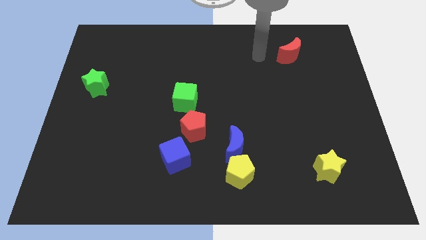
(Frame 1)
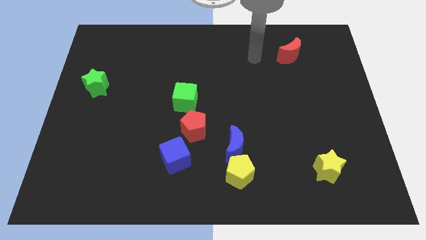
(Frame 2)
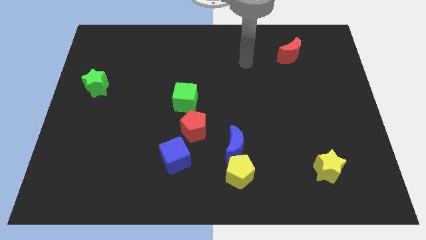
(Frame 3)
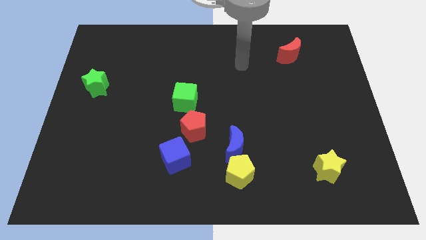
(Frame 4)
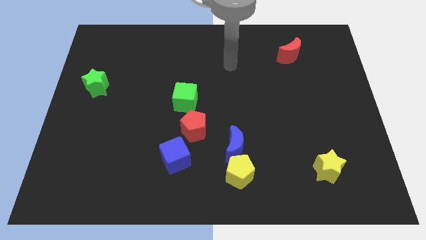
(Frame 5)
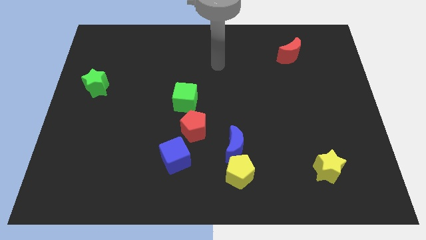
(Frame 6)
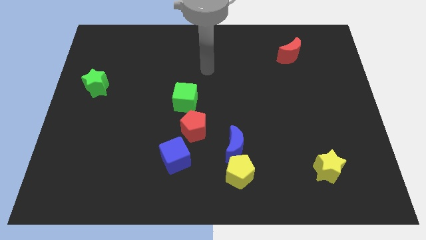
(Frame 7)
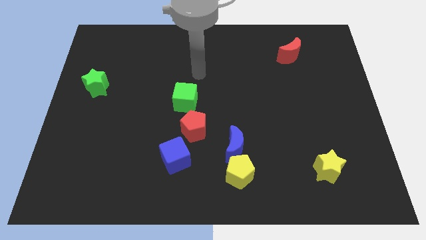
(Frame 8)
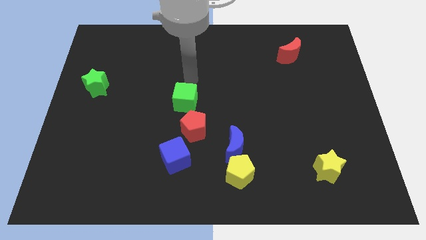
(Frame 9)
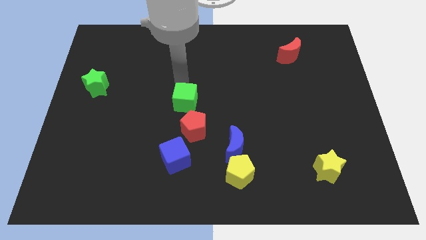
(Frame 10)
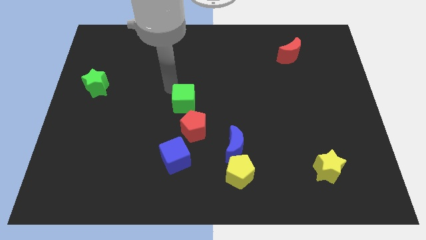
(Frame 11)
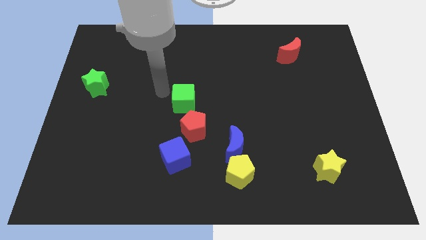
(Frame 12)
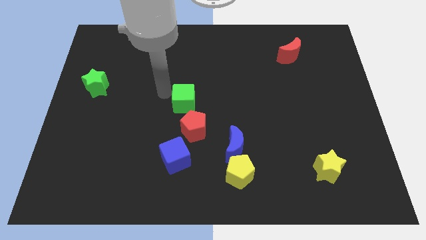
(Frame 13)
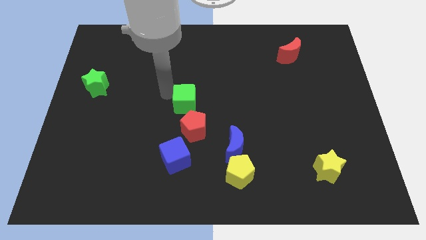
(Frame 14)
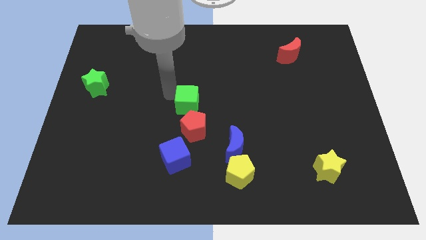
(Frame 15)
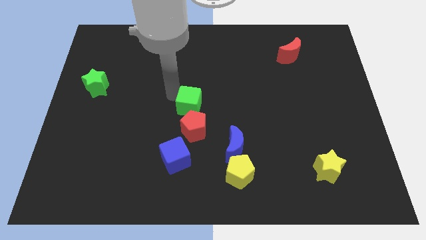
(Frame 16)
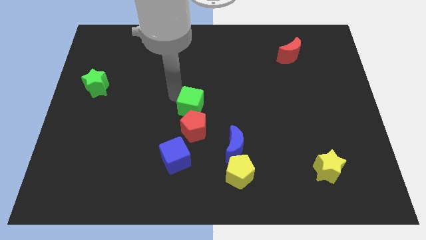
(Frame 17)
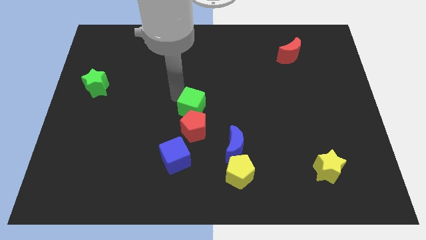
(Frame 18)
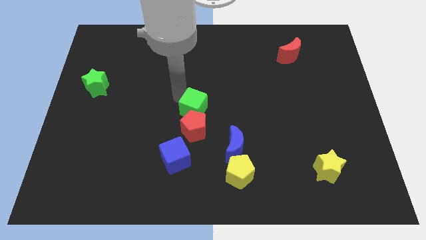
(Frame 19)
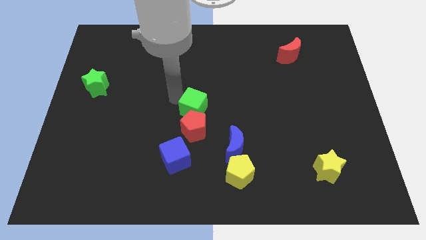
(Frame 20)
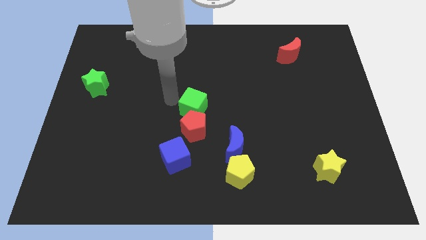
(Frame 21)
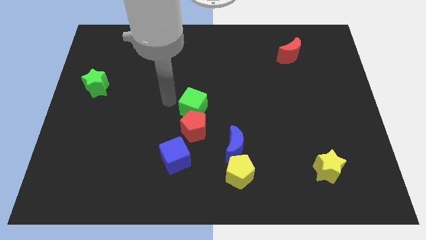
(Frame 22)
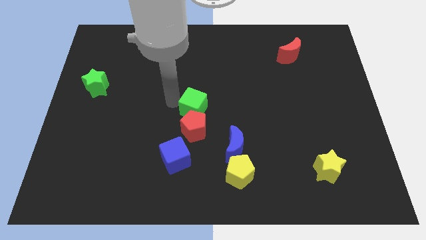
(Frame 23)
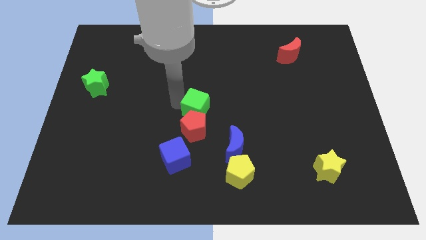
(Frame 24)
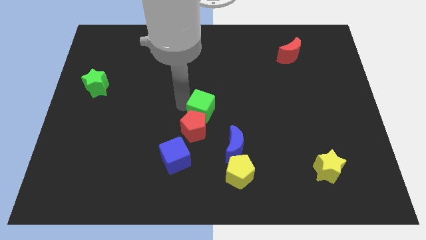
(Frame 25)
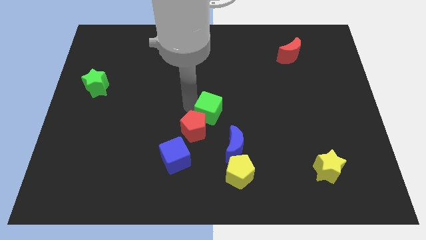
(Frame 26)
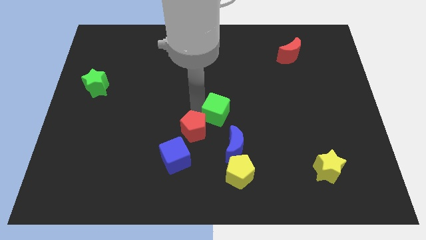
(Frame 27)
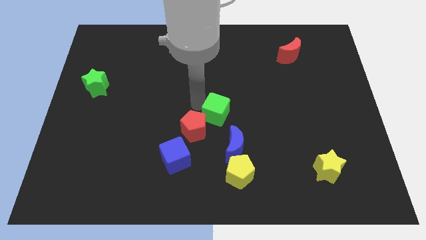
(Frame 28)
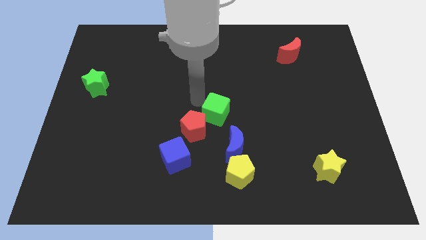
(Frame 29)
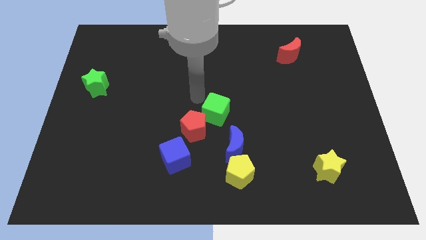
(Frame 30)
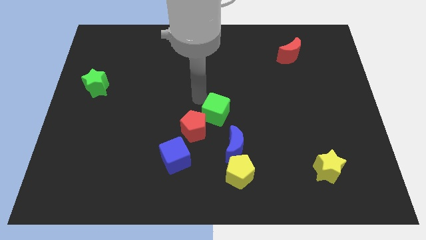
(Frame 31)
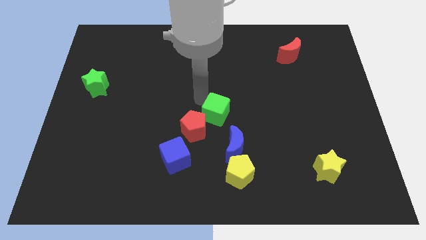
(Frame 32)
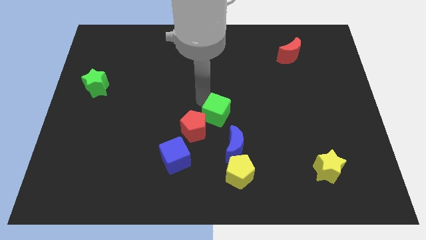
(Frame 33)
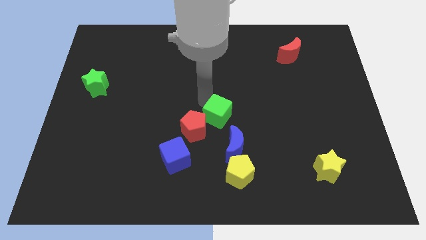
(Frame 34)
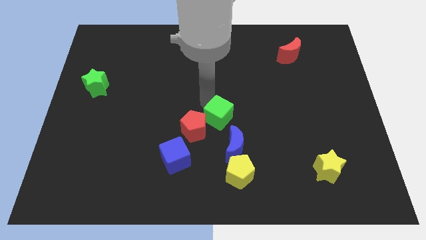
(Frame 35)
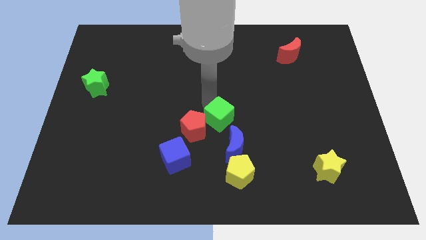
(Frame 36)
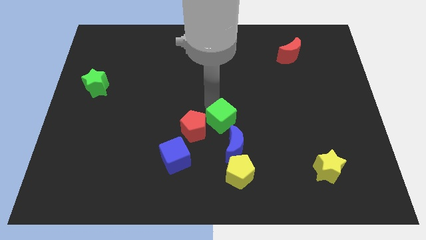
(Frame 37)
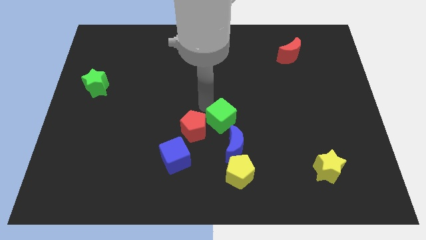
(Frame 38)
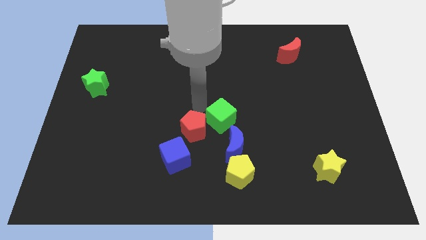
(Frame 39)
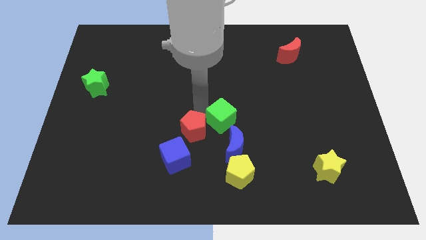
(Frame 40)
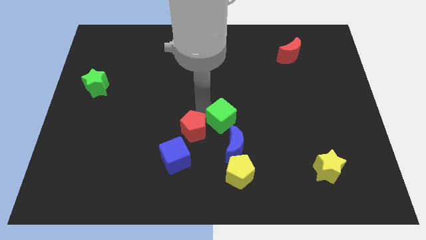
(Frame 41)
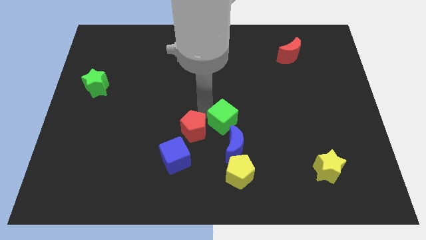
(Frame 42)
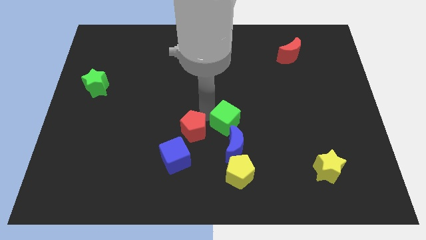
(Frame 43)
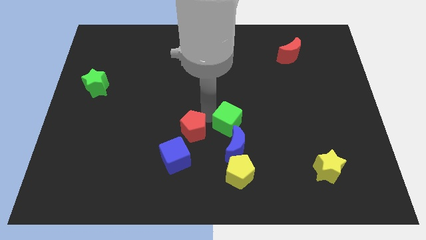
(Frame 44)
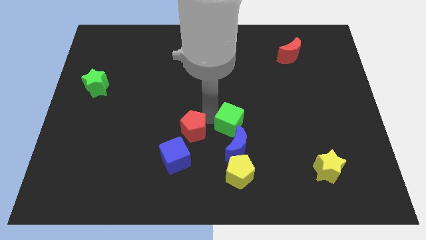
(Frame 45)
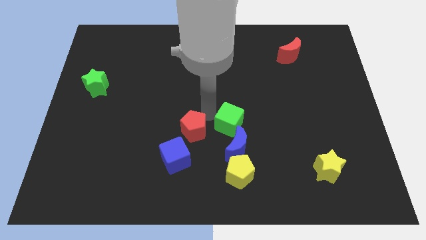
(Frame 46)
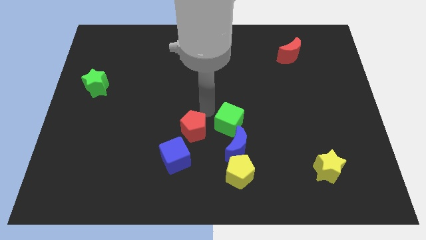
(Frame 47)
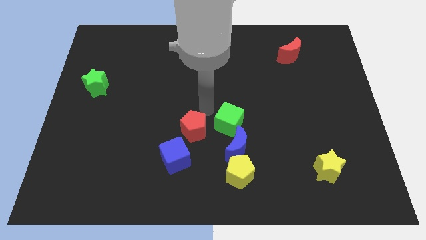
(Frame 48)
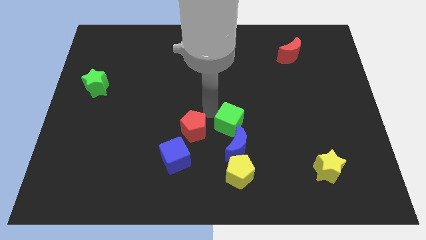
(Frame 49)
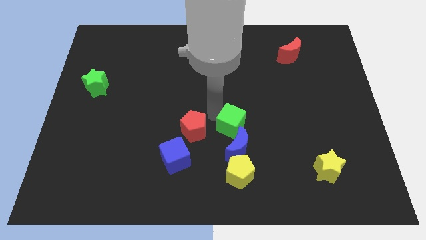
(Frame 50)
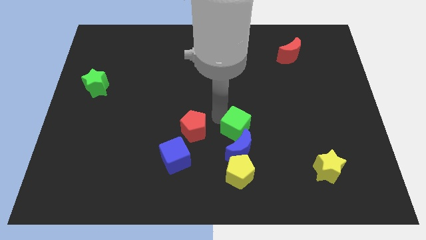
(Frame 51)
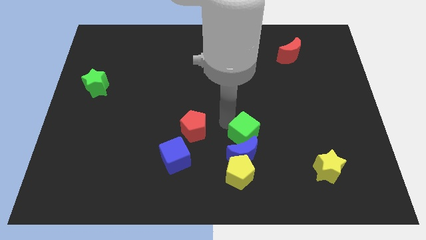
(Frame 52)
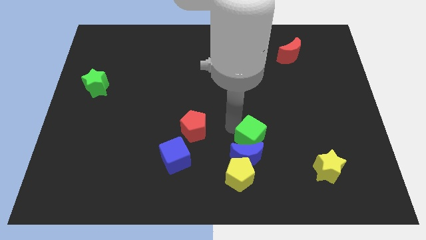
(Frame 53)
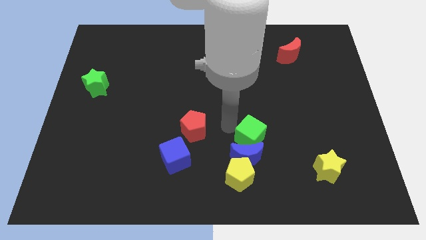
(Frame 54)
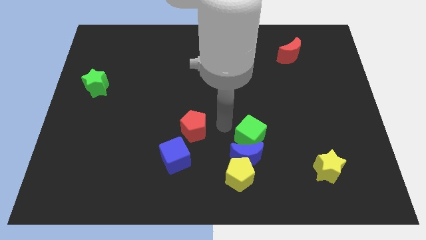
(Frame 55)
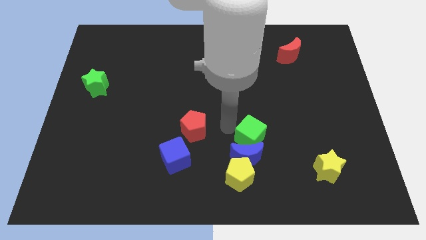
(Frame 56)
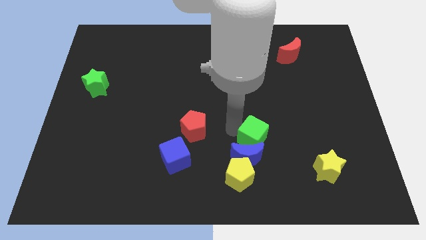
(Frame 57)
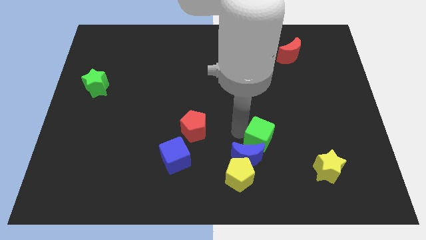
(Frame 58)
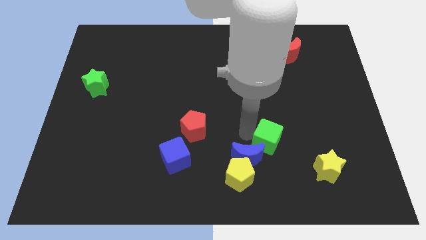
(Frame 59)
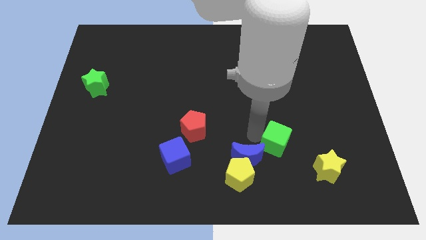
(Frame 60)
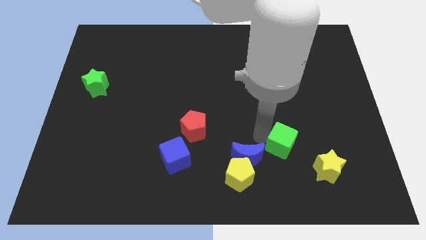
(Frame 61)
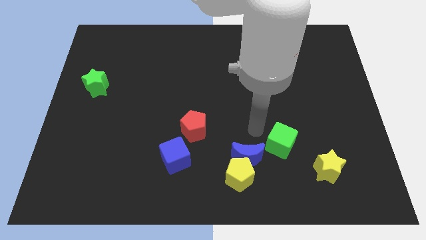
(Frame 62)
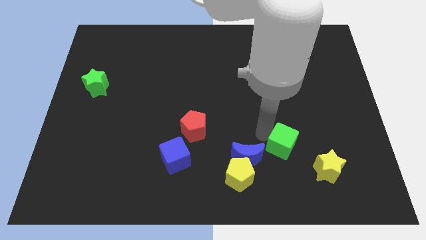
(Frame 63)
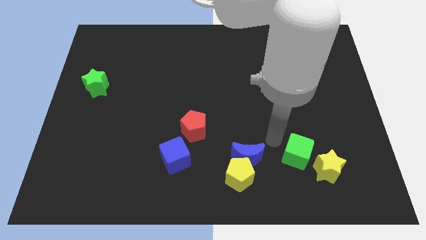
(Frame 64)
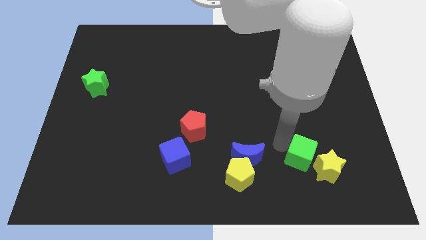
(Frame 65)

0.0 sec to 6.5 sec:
put the green cube close to the yellow star

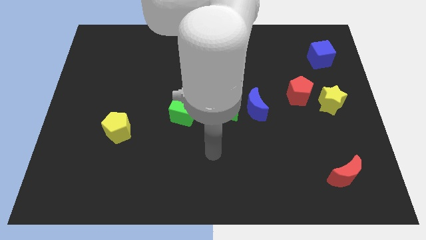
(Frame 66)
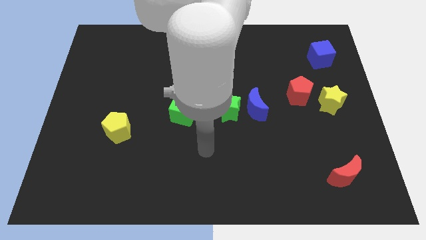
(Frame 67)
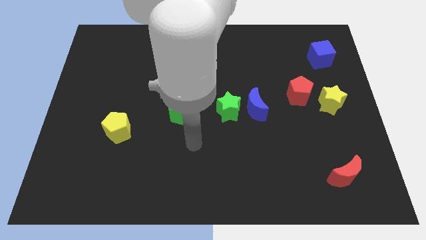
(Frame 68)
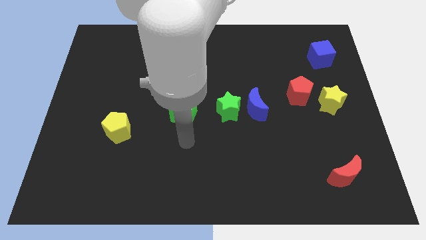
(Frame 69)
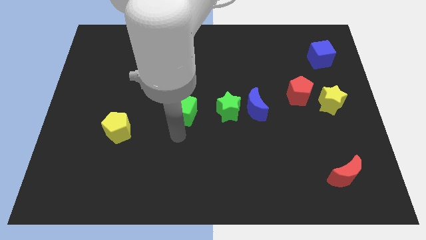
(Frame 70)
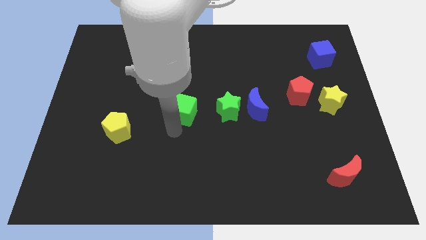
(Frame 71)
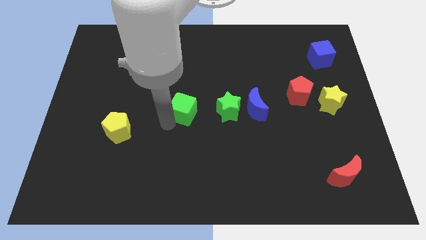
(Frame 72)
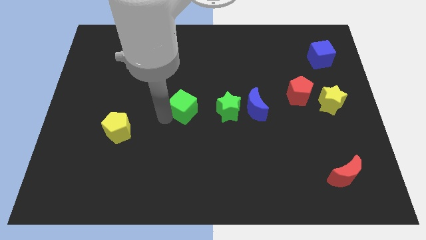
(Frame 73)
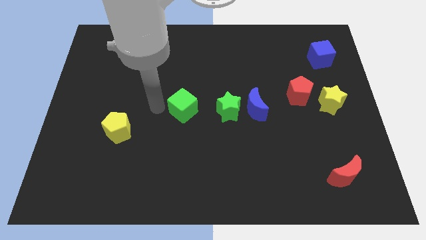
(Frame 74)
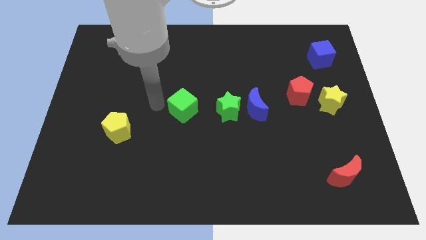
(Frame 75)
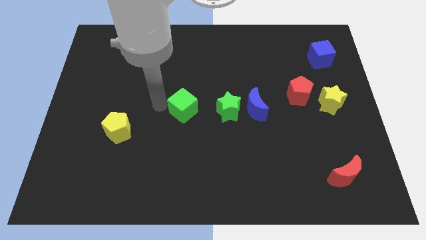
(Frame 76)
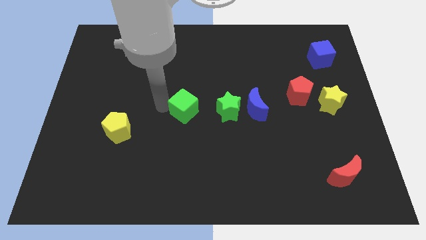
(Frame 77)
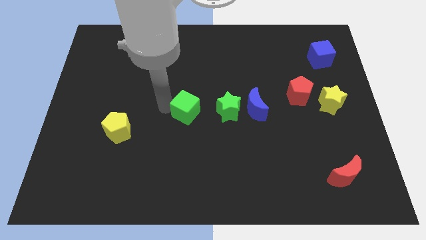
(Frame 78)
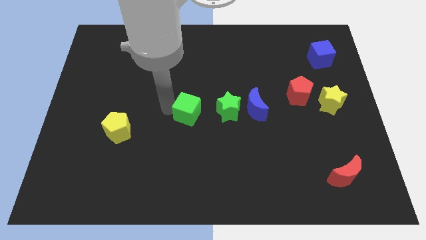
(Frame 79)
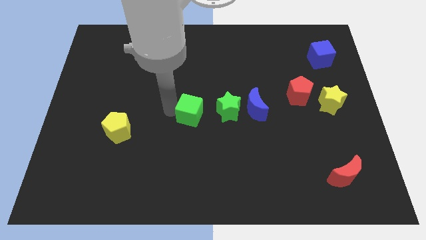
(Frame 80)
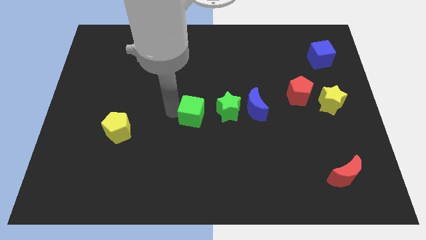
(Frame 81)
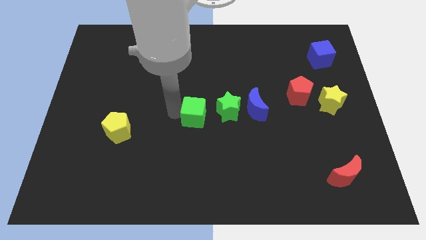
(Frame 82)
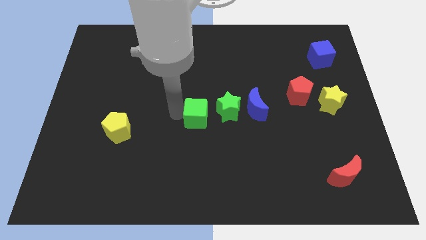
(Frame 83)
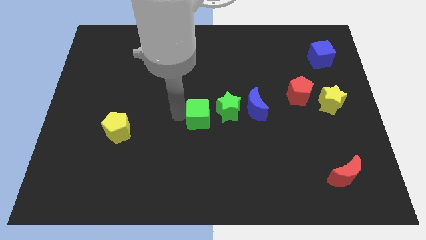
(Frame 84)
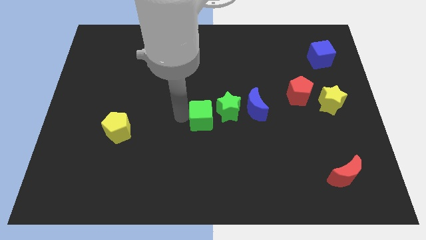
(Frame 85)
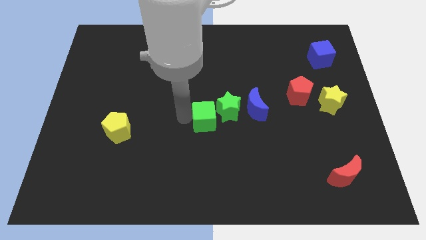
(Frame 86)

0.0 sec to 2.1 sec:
push the green cube next to the green star
